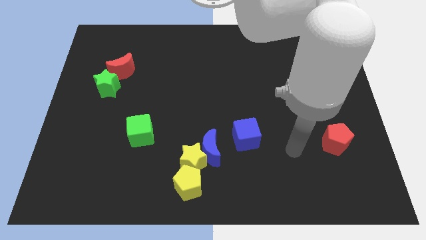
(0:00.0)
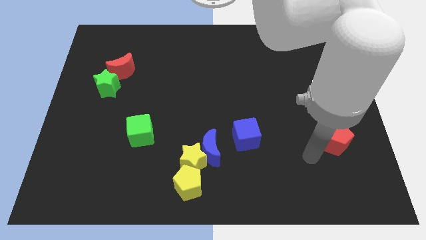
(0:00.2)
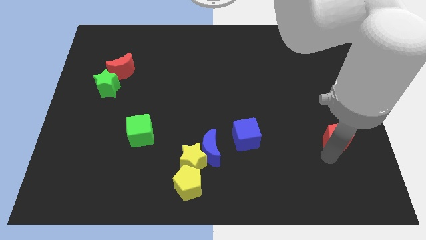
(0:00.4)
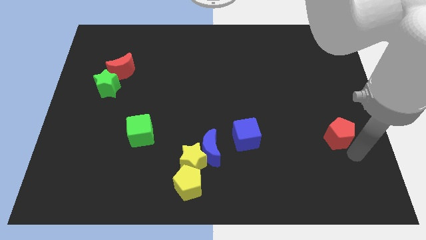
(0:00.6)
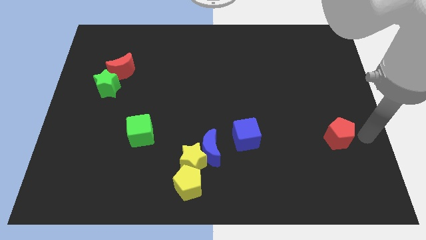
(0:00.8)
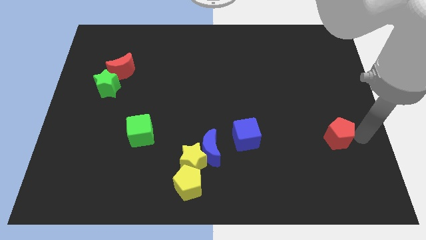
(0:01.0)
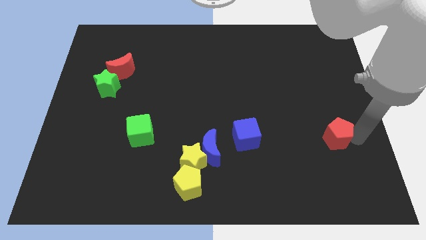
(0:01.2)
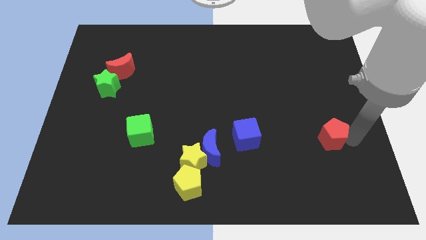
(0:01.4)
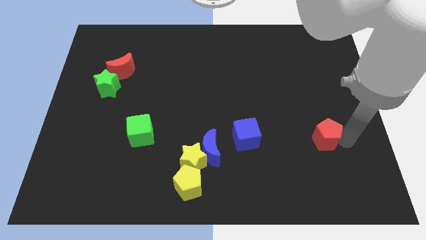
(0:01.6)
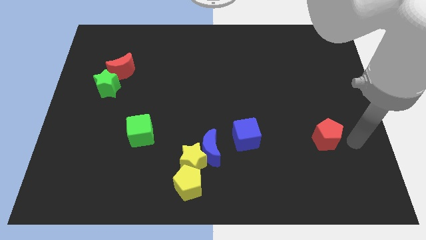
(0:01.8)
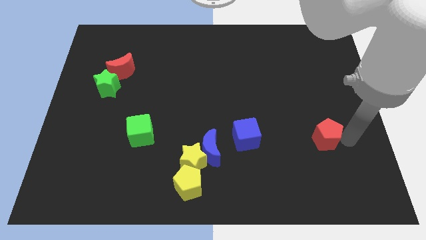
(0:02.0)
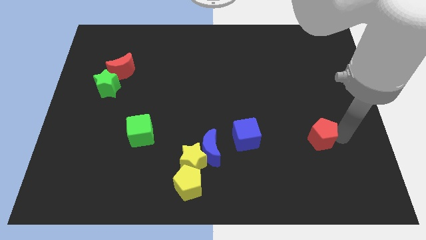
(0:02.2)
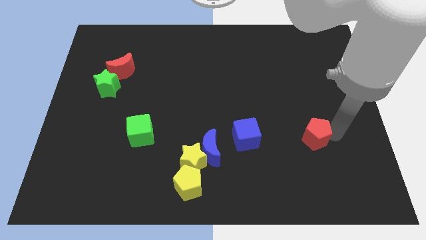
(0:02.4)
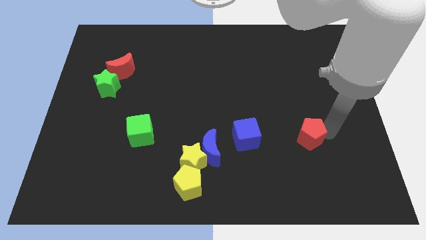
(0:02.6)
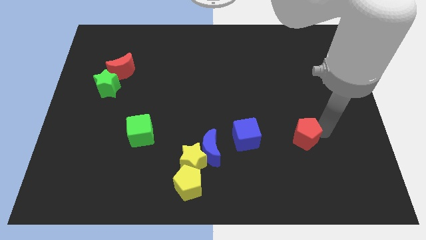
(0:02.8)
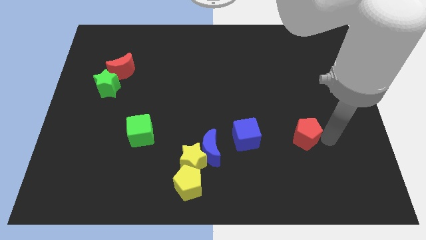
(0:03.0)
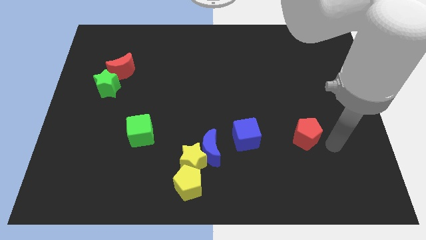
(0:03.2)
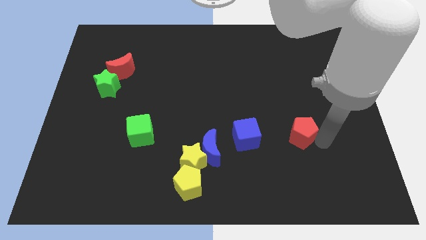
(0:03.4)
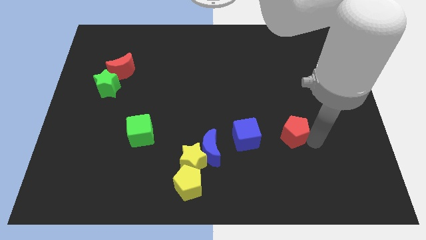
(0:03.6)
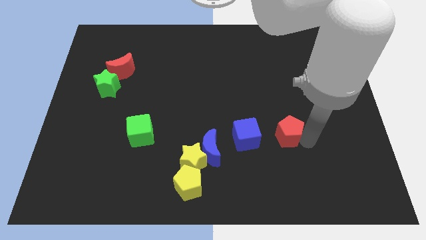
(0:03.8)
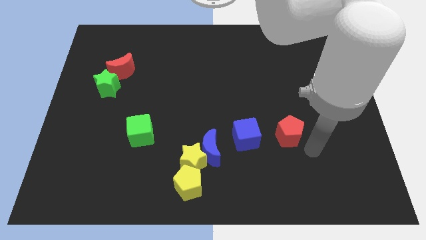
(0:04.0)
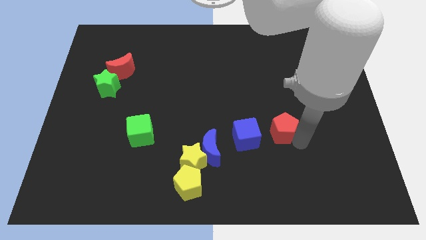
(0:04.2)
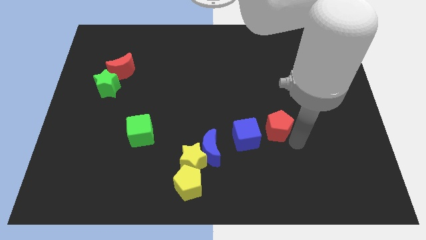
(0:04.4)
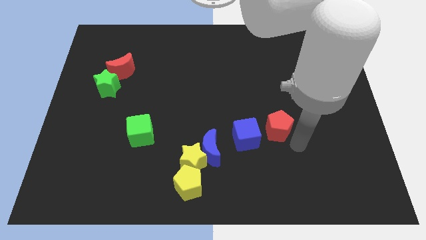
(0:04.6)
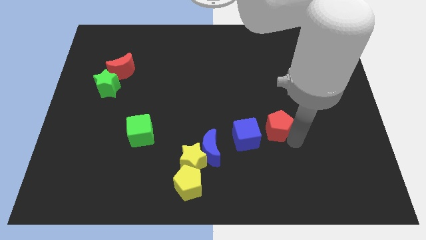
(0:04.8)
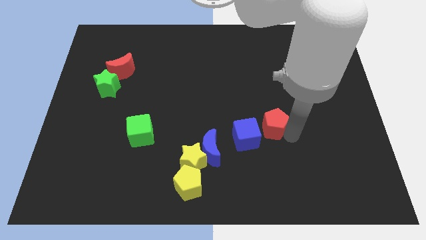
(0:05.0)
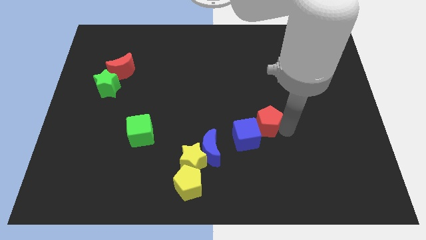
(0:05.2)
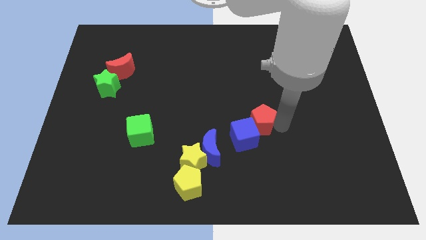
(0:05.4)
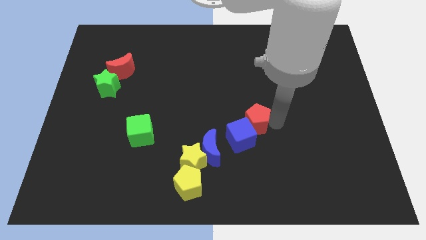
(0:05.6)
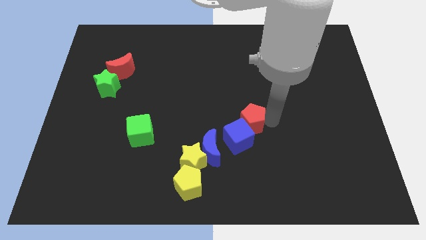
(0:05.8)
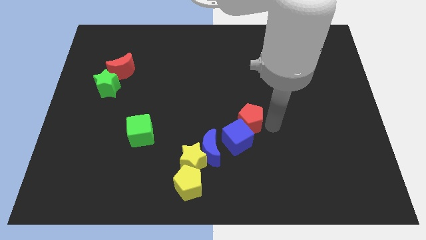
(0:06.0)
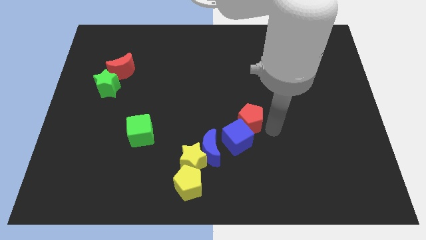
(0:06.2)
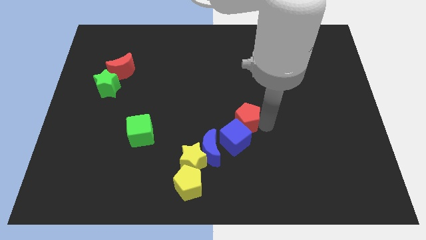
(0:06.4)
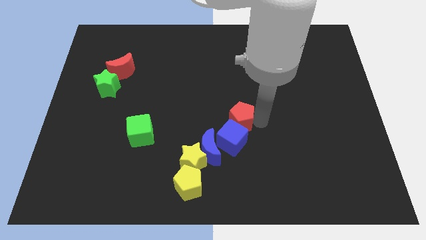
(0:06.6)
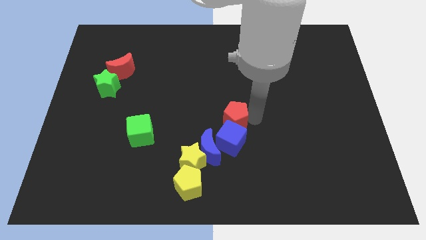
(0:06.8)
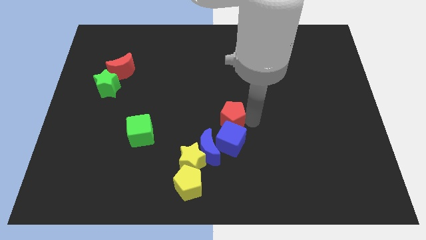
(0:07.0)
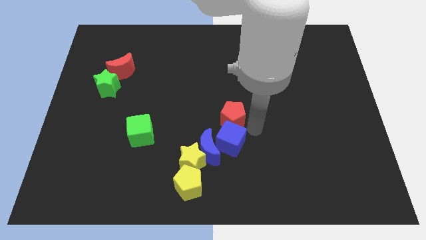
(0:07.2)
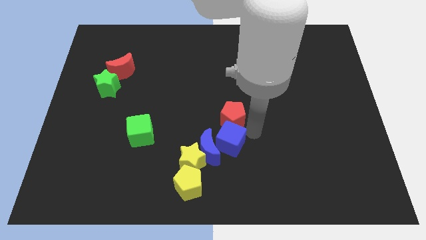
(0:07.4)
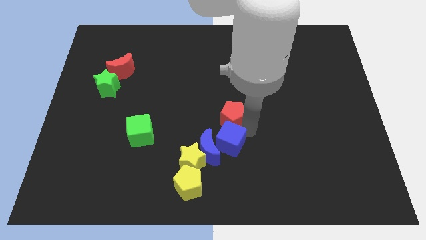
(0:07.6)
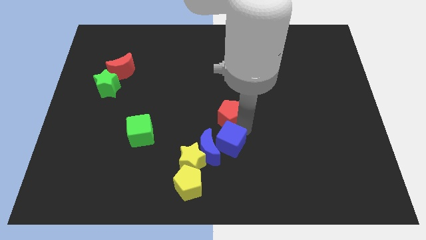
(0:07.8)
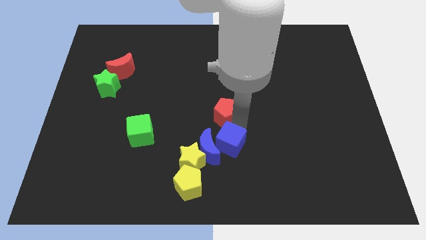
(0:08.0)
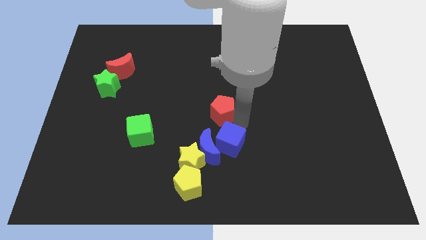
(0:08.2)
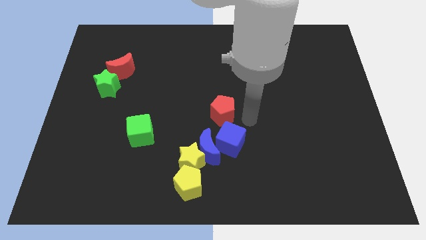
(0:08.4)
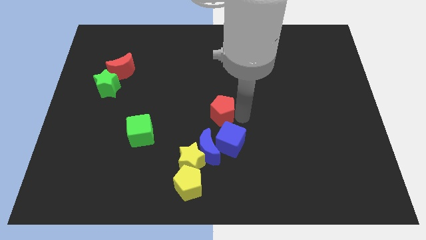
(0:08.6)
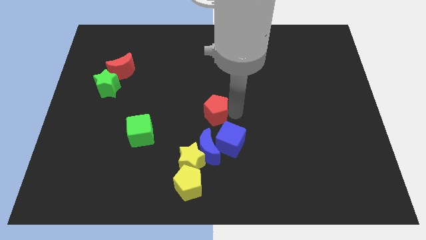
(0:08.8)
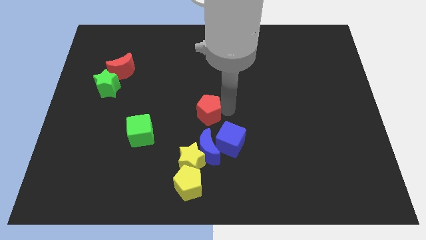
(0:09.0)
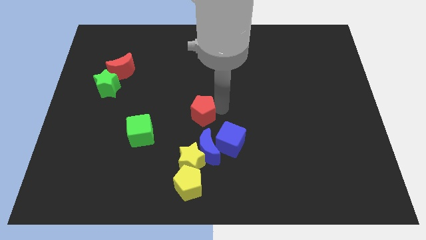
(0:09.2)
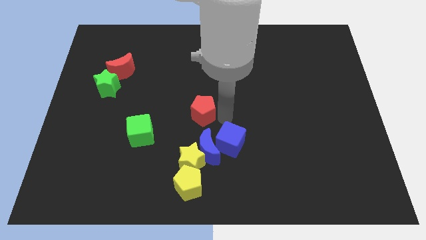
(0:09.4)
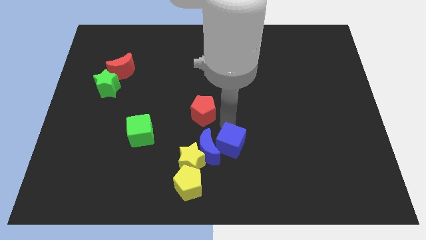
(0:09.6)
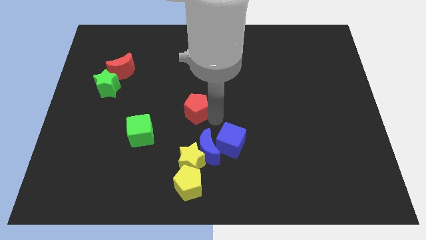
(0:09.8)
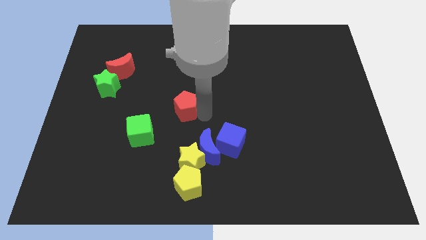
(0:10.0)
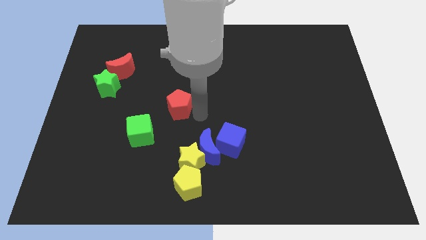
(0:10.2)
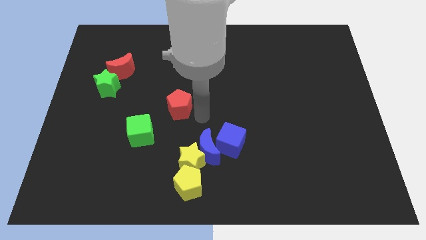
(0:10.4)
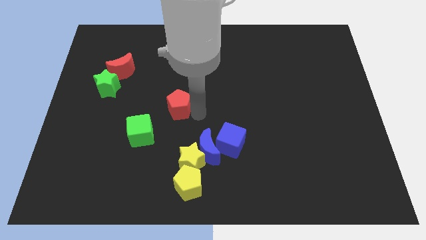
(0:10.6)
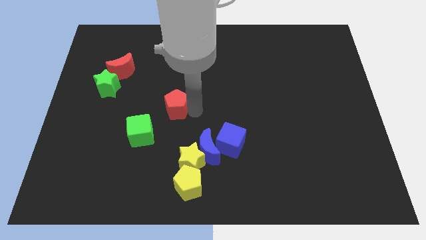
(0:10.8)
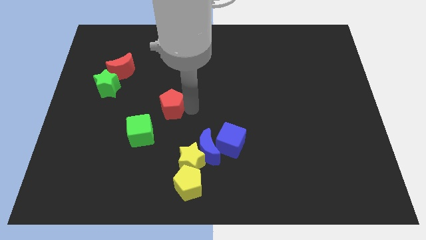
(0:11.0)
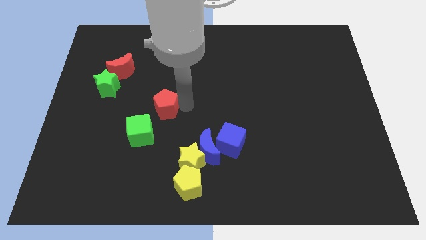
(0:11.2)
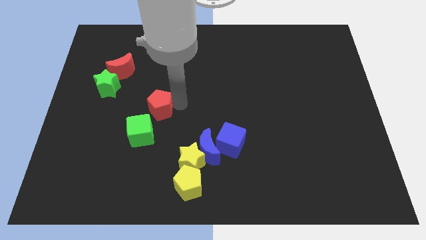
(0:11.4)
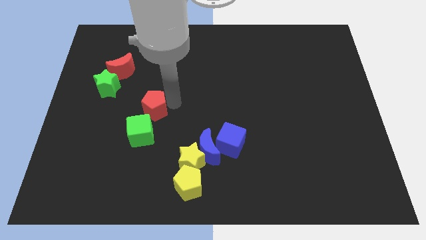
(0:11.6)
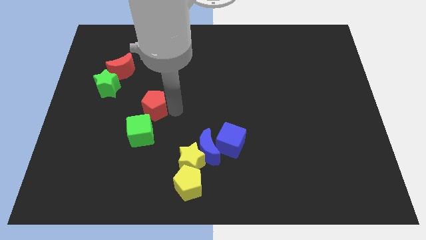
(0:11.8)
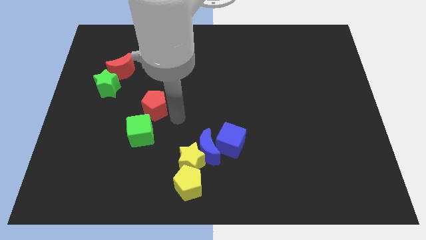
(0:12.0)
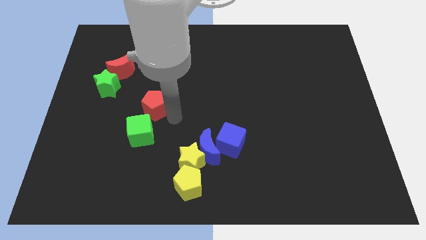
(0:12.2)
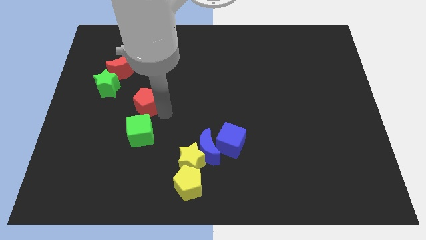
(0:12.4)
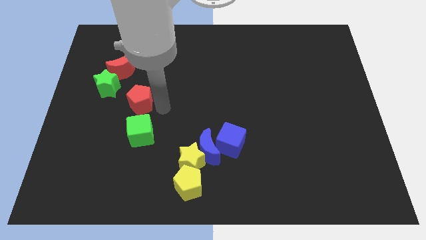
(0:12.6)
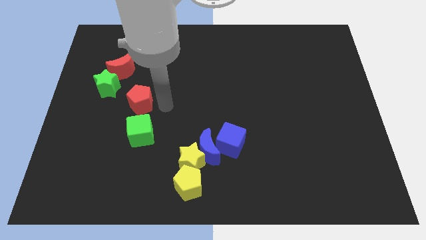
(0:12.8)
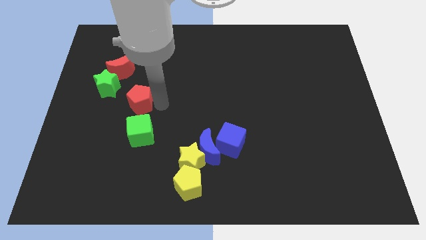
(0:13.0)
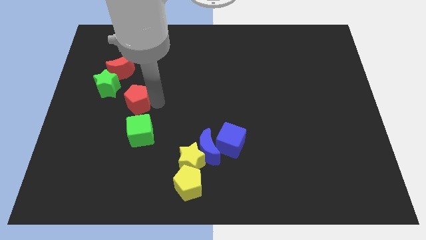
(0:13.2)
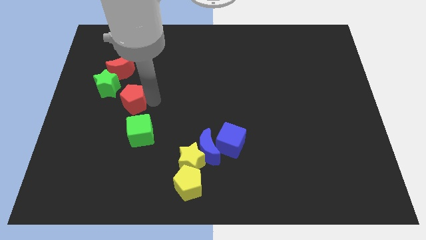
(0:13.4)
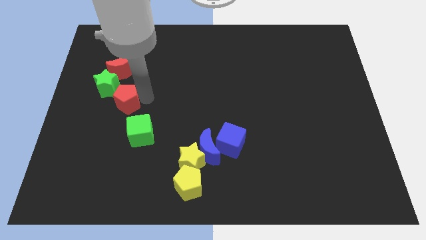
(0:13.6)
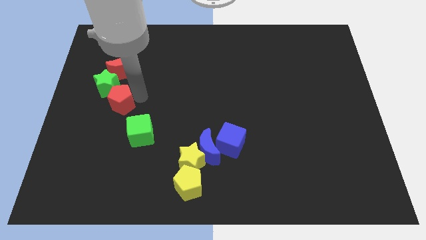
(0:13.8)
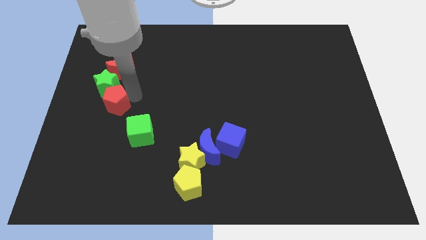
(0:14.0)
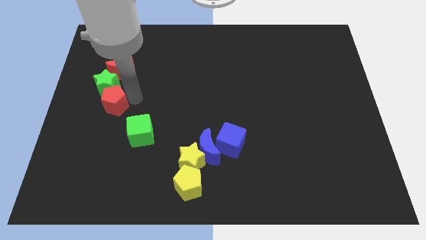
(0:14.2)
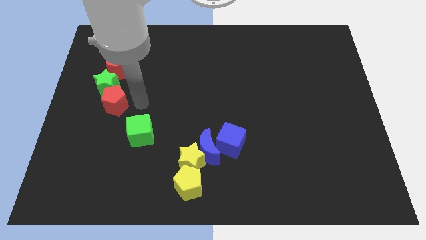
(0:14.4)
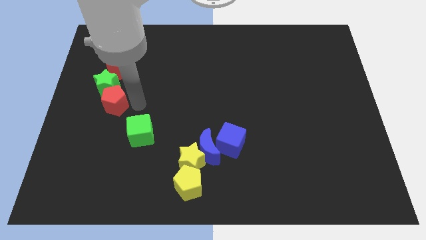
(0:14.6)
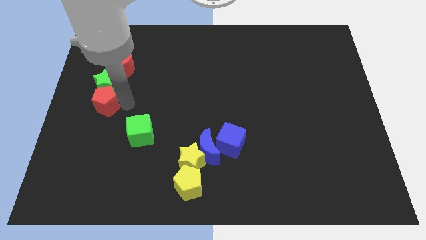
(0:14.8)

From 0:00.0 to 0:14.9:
move the red pentagon to the center left
